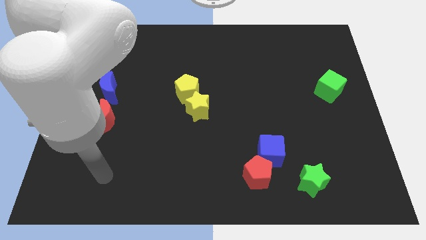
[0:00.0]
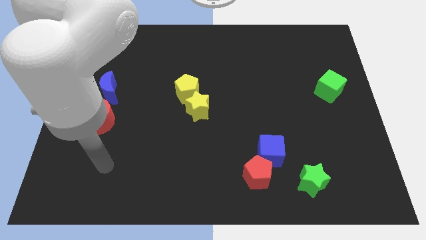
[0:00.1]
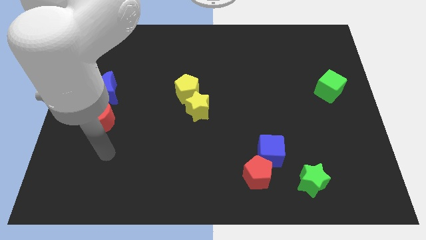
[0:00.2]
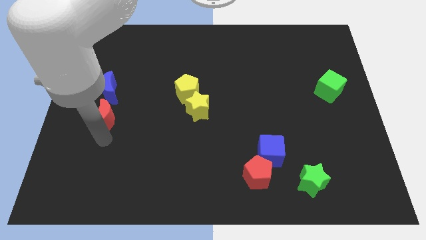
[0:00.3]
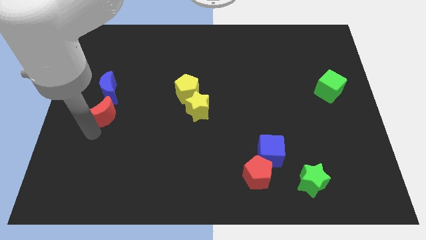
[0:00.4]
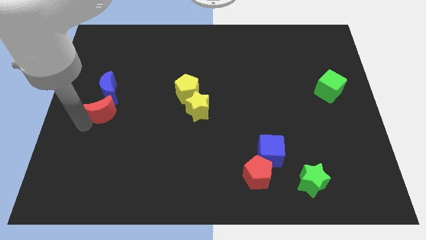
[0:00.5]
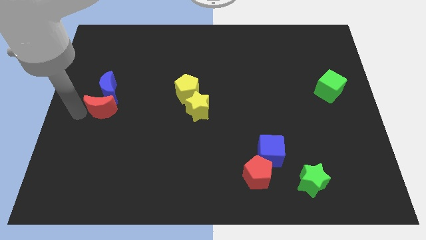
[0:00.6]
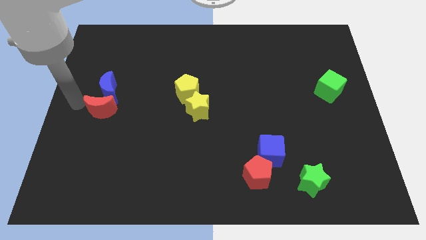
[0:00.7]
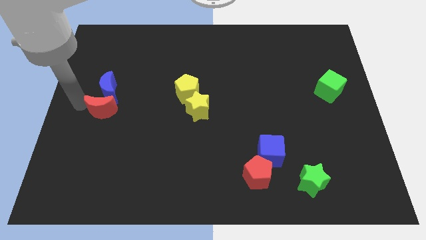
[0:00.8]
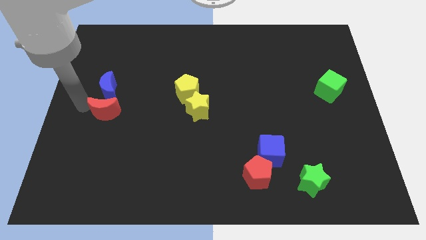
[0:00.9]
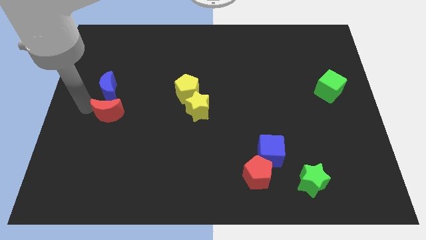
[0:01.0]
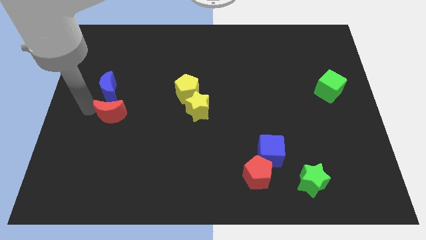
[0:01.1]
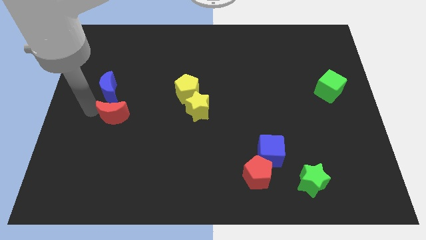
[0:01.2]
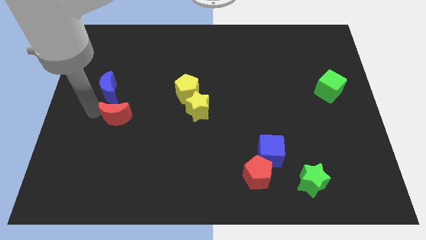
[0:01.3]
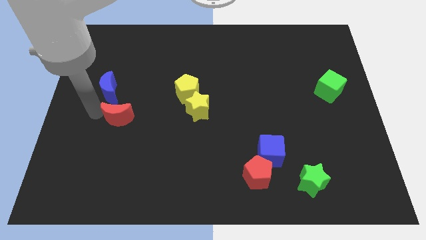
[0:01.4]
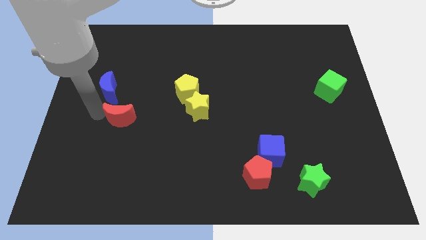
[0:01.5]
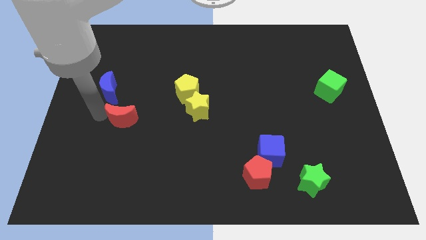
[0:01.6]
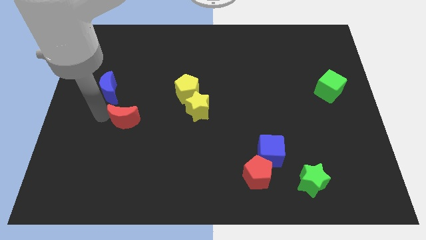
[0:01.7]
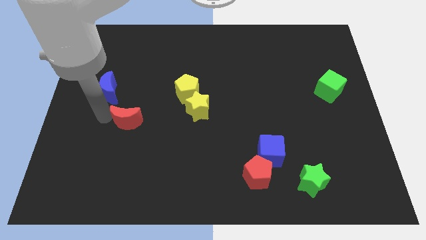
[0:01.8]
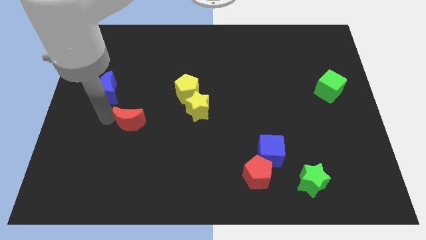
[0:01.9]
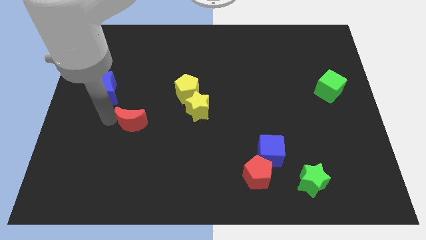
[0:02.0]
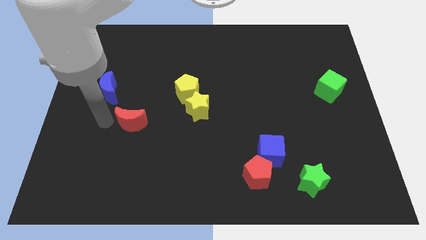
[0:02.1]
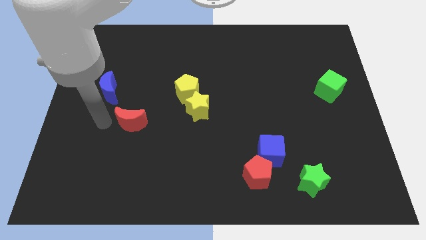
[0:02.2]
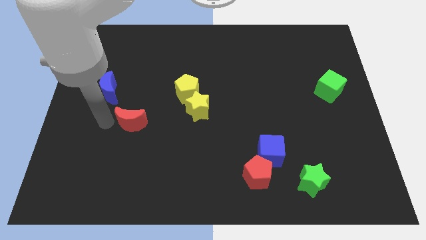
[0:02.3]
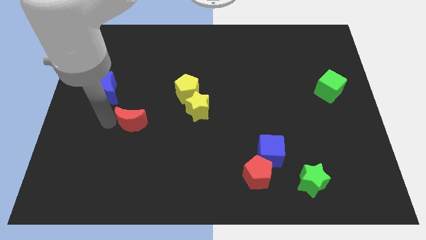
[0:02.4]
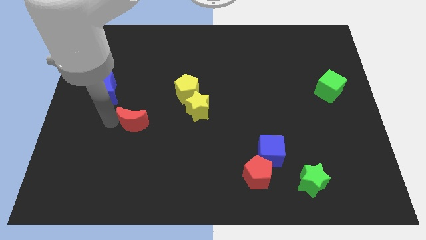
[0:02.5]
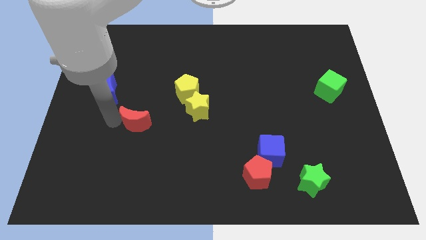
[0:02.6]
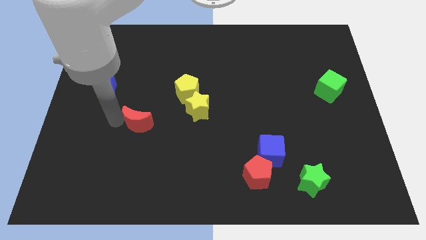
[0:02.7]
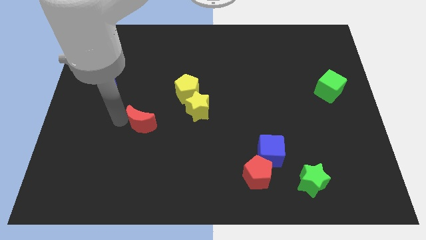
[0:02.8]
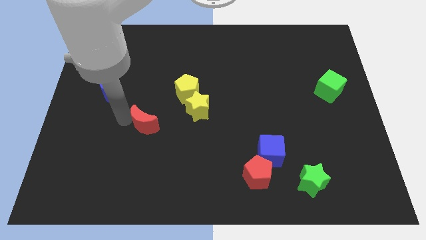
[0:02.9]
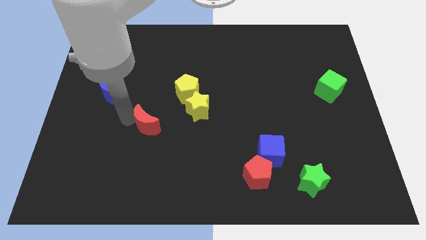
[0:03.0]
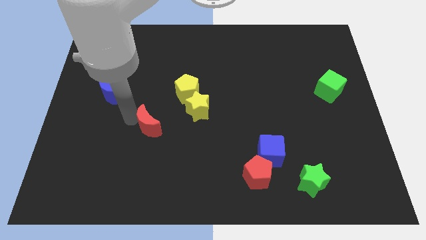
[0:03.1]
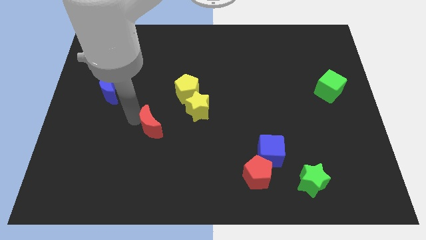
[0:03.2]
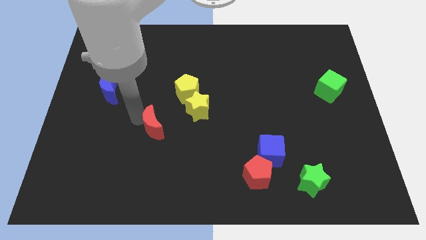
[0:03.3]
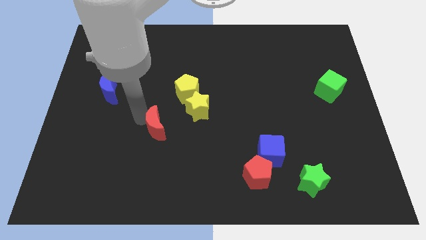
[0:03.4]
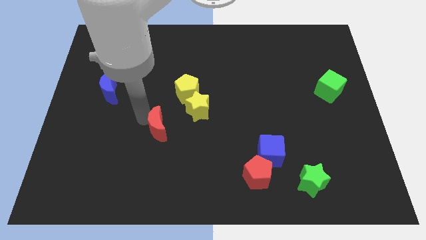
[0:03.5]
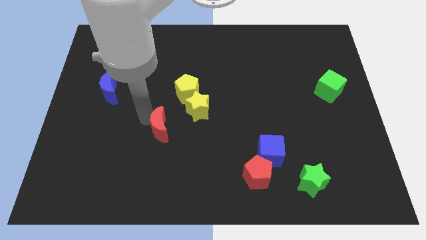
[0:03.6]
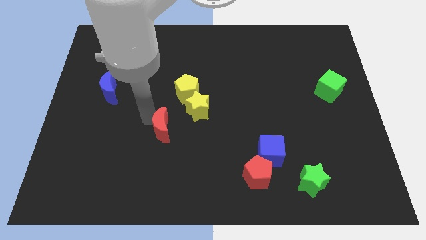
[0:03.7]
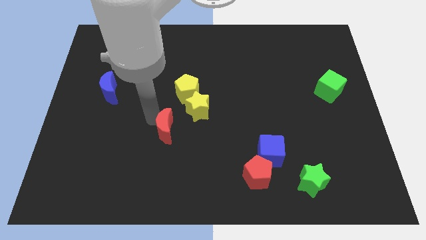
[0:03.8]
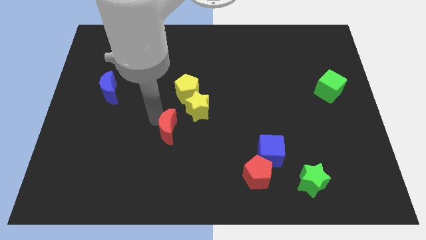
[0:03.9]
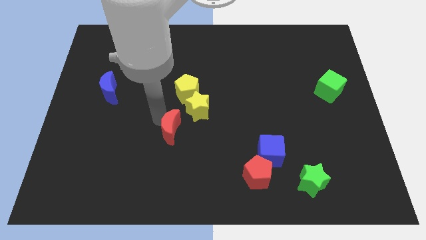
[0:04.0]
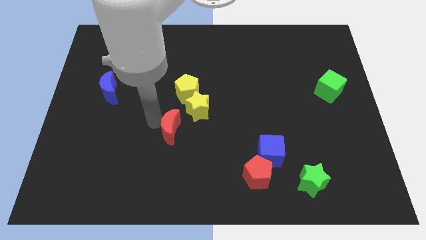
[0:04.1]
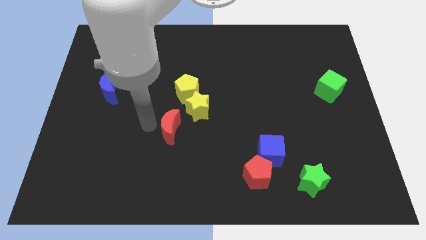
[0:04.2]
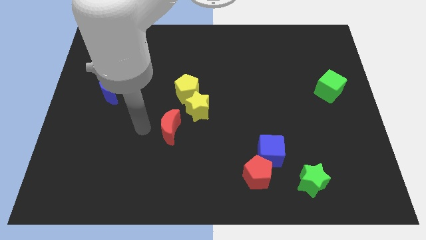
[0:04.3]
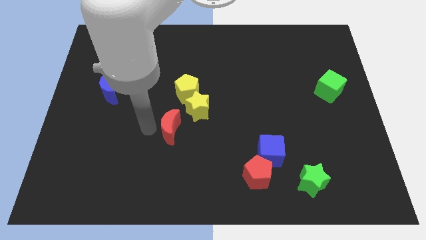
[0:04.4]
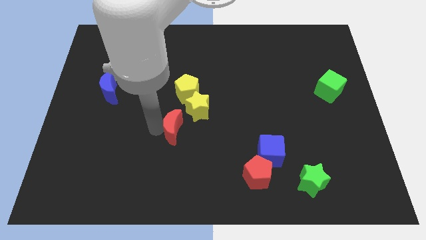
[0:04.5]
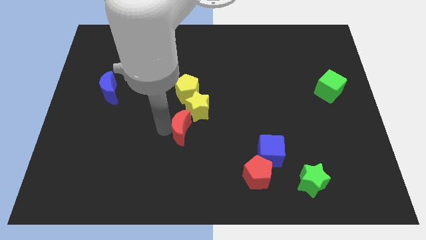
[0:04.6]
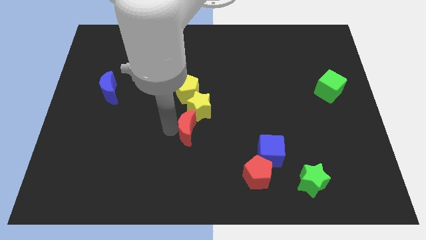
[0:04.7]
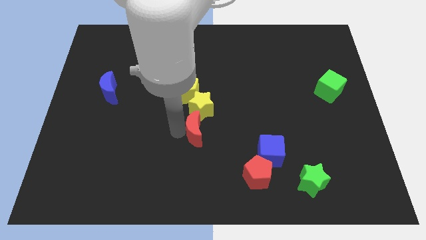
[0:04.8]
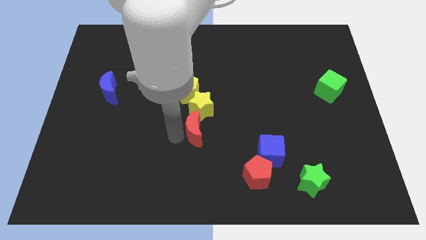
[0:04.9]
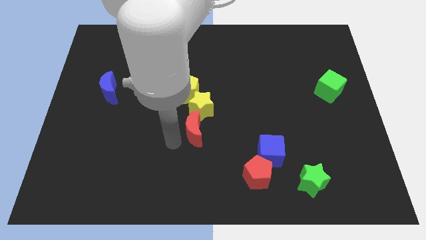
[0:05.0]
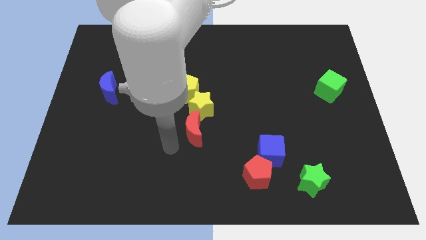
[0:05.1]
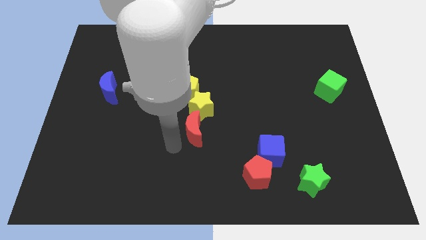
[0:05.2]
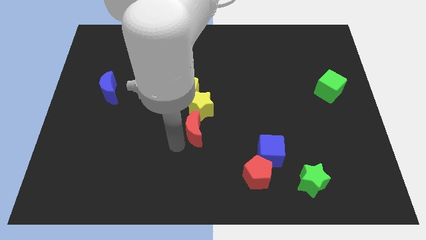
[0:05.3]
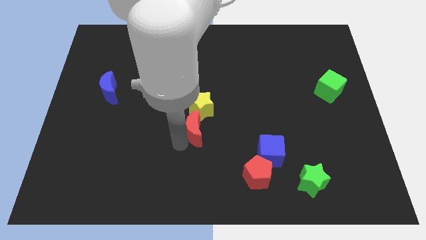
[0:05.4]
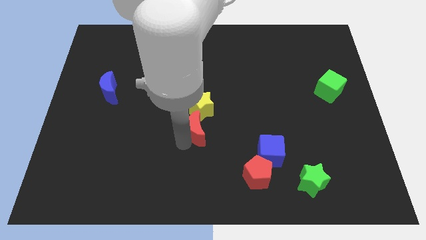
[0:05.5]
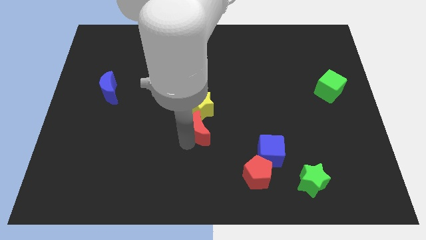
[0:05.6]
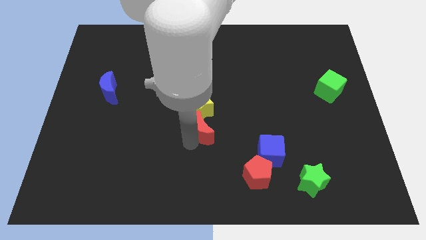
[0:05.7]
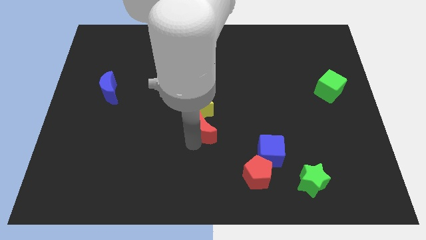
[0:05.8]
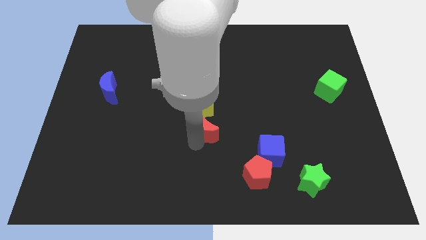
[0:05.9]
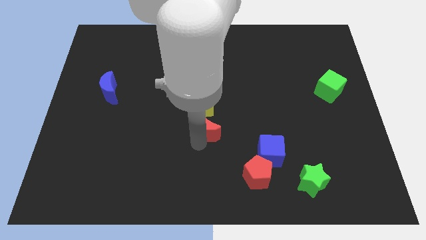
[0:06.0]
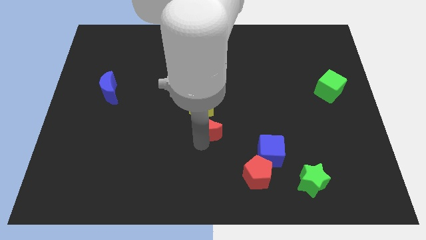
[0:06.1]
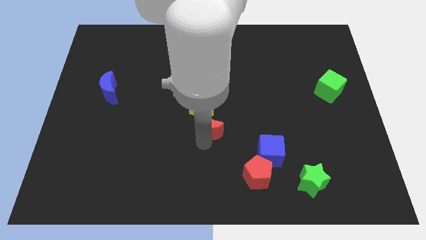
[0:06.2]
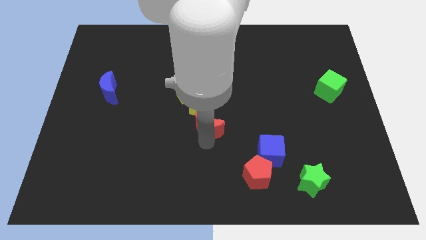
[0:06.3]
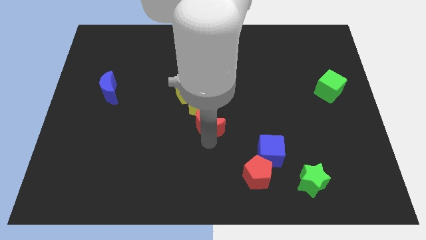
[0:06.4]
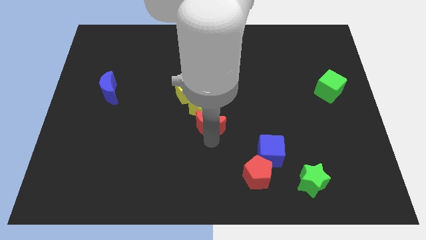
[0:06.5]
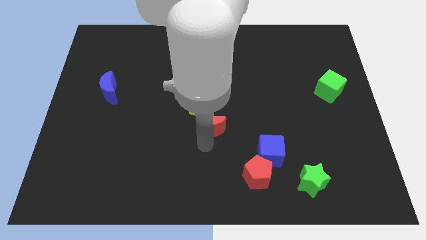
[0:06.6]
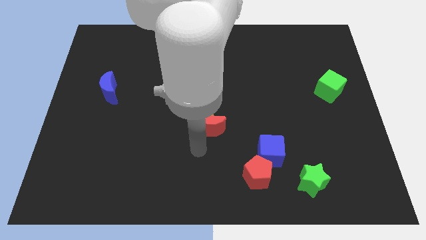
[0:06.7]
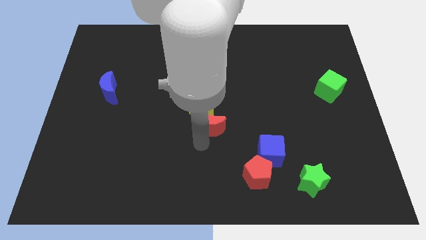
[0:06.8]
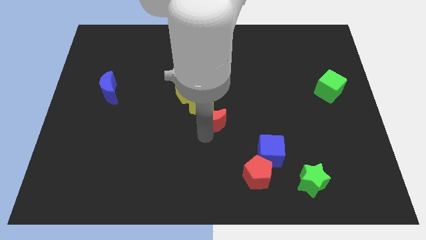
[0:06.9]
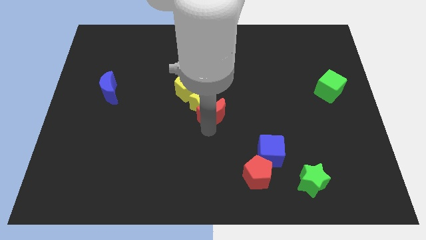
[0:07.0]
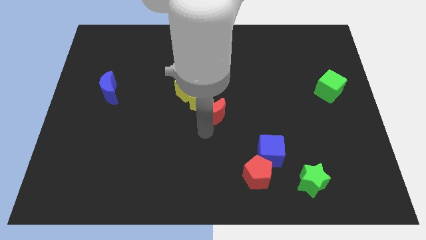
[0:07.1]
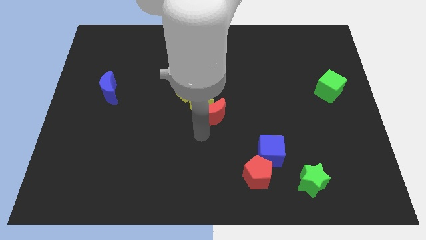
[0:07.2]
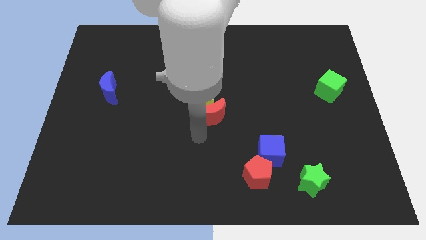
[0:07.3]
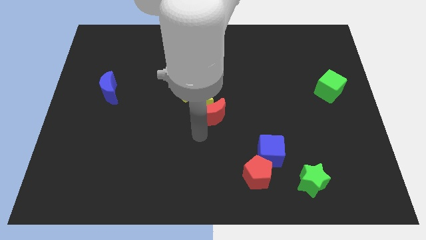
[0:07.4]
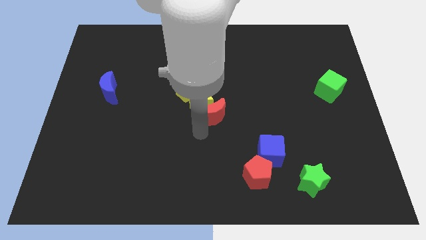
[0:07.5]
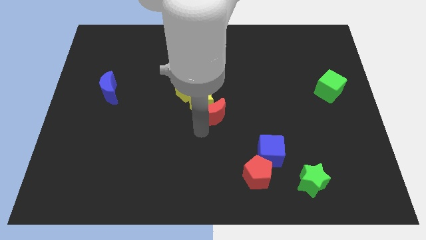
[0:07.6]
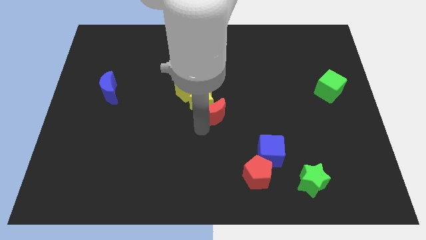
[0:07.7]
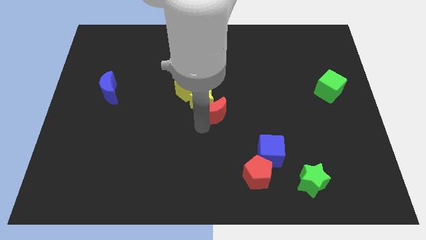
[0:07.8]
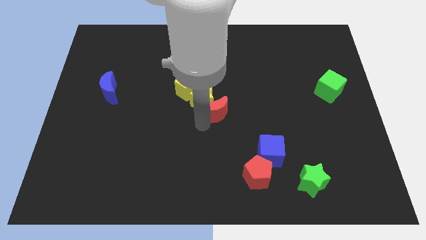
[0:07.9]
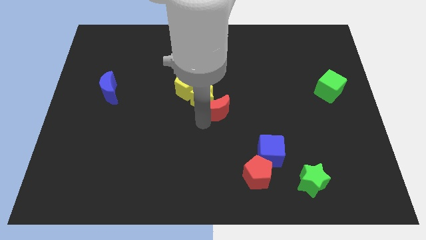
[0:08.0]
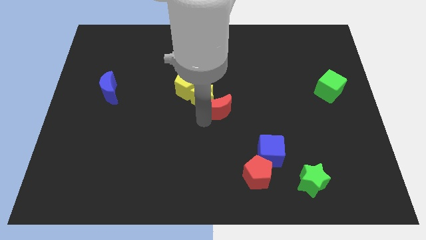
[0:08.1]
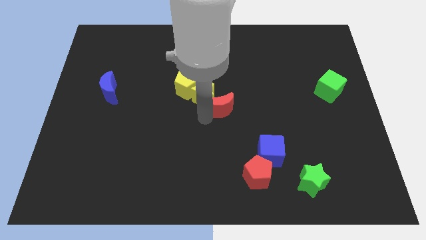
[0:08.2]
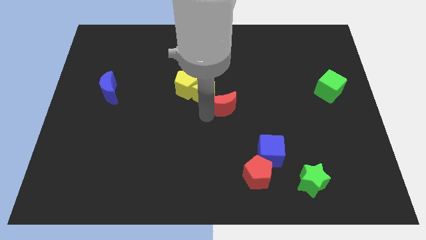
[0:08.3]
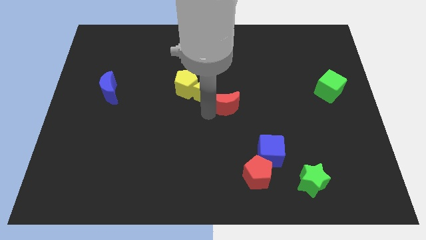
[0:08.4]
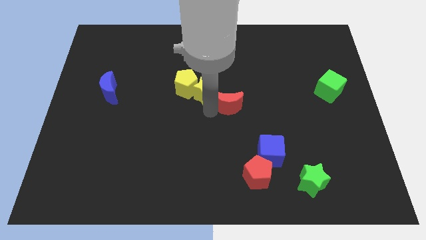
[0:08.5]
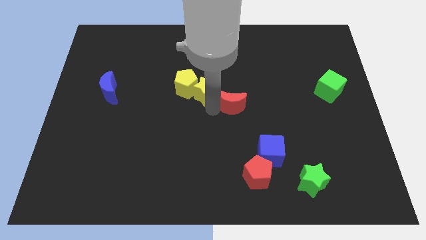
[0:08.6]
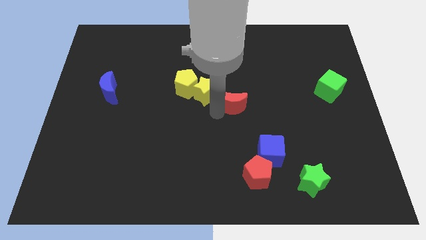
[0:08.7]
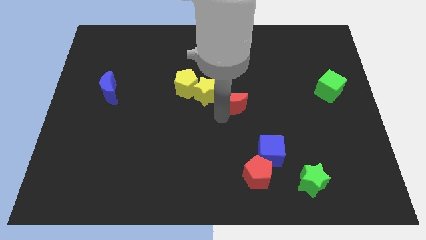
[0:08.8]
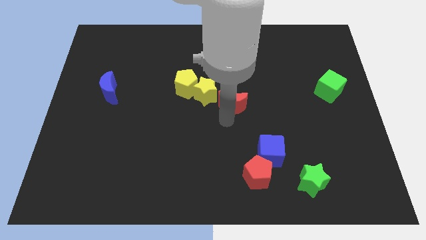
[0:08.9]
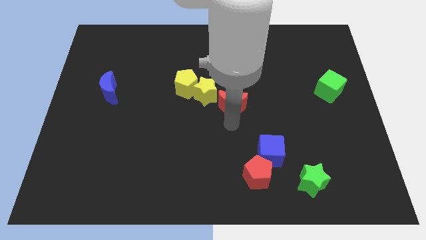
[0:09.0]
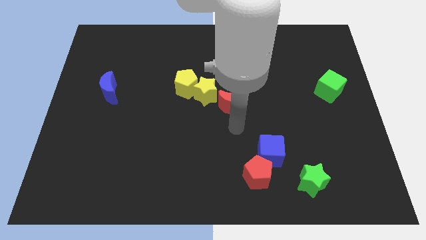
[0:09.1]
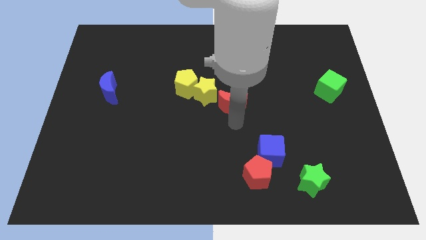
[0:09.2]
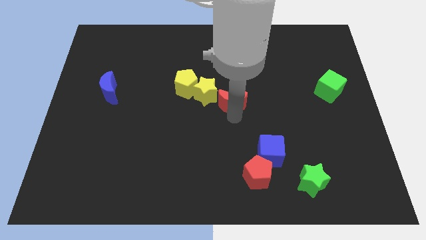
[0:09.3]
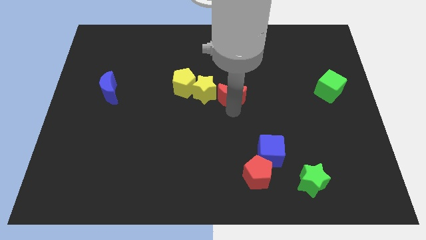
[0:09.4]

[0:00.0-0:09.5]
move the red moon to the right of the yellow pentagon
